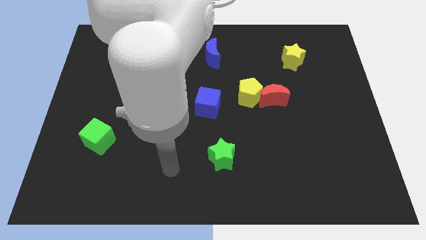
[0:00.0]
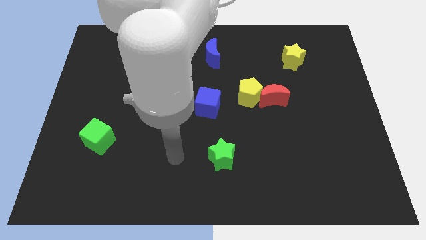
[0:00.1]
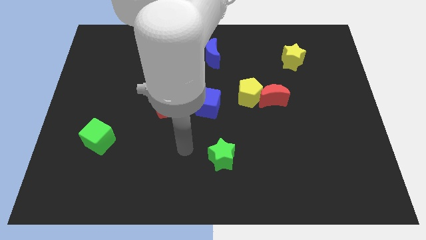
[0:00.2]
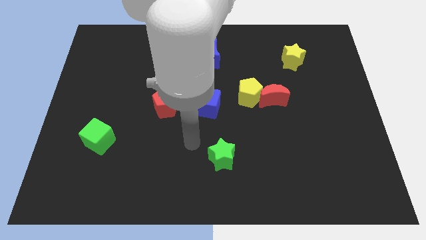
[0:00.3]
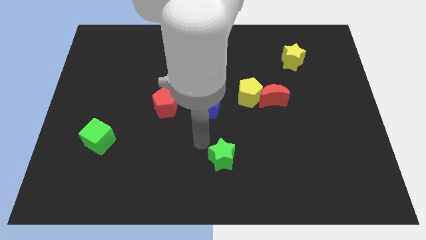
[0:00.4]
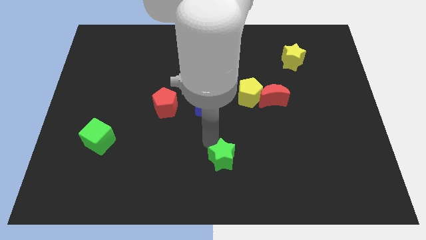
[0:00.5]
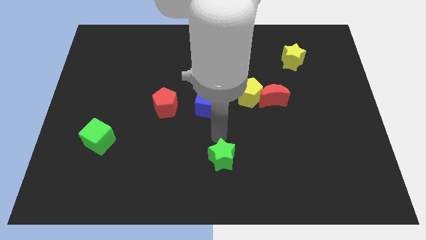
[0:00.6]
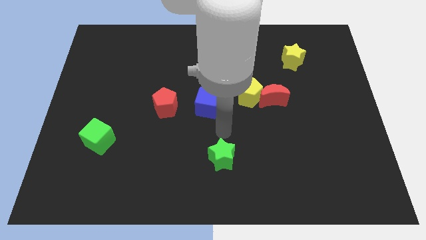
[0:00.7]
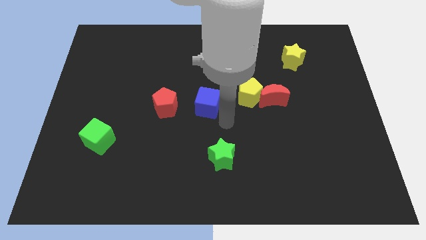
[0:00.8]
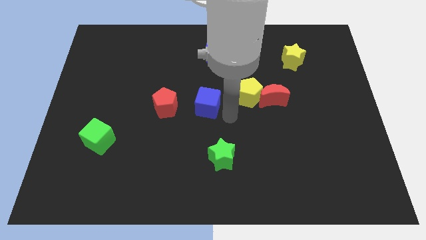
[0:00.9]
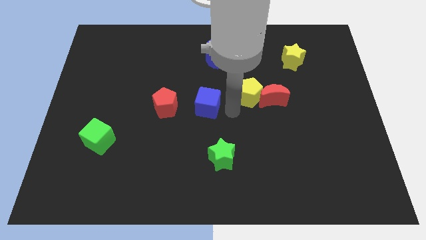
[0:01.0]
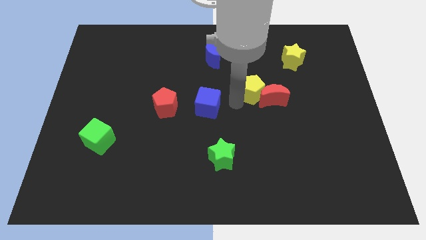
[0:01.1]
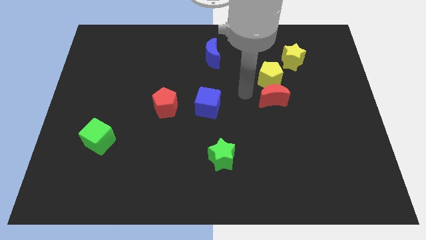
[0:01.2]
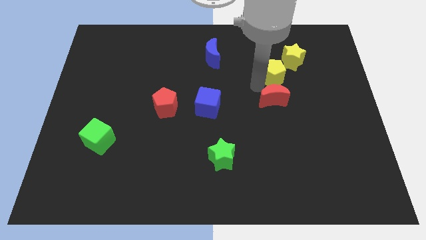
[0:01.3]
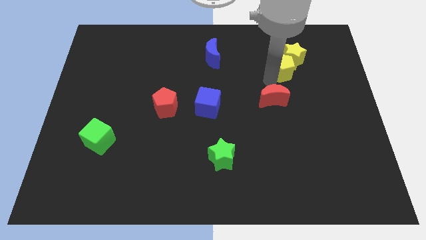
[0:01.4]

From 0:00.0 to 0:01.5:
move the red moon away from the yellow pentagon

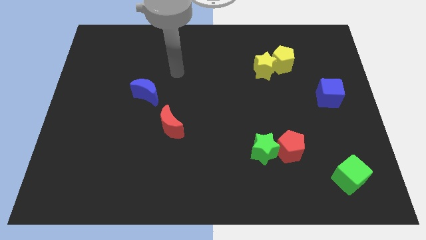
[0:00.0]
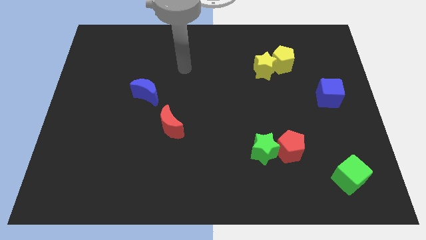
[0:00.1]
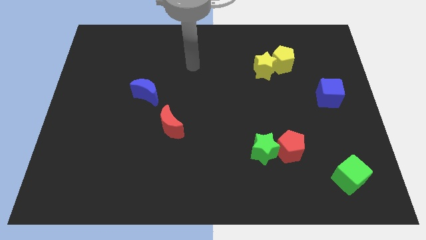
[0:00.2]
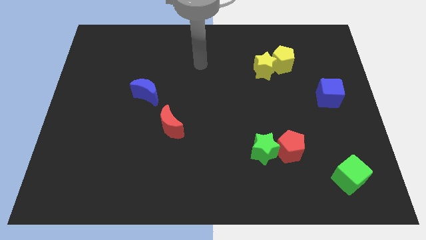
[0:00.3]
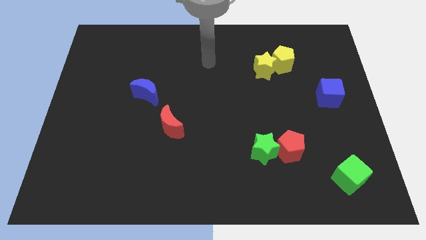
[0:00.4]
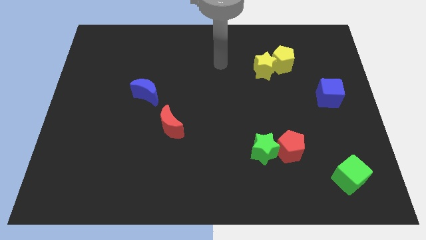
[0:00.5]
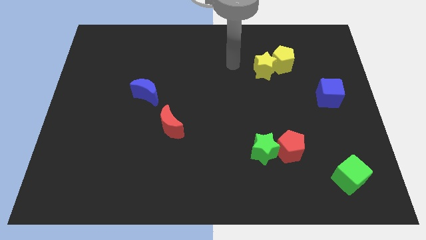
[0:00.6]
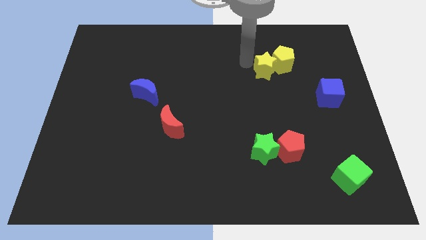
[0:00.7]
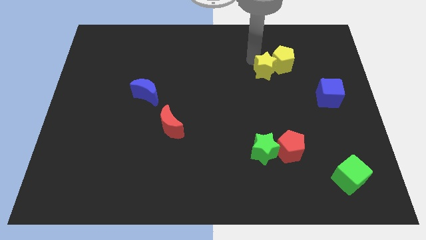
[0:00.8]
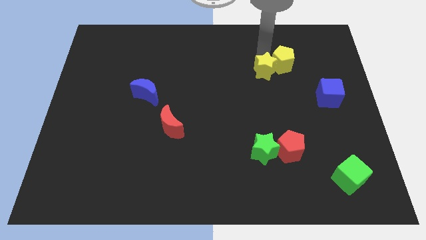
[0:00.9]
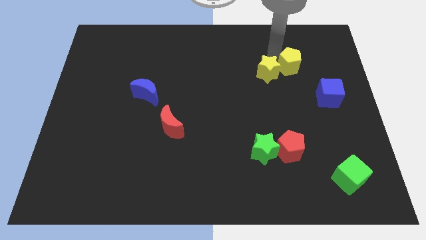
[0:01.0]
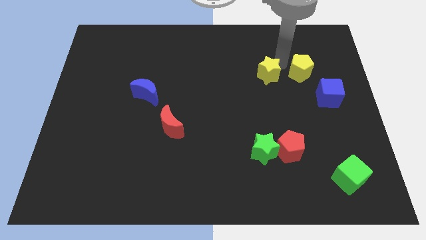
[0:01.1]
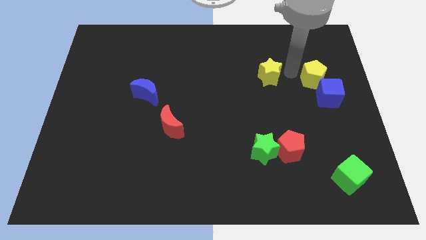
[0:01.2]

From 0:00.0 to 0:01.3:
pull the yellow star apart from the yellow pentagon

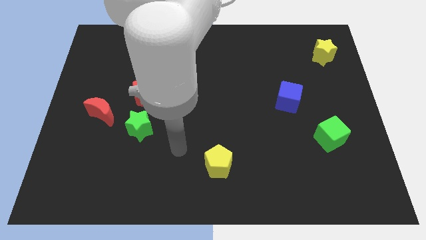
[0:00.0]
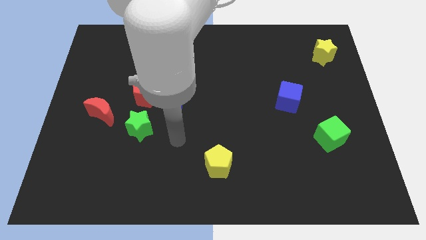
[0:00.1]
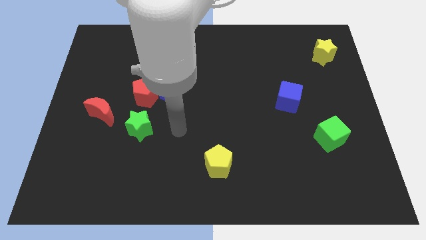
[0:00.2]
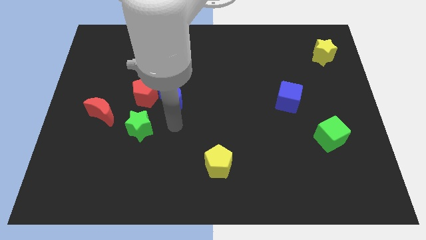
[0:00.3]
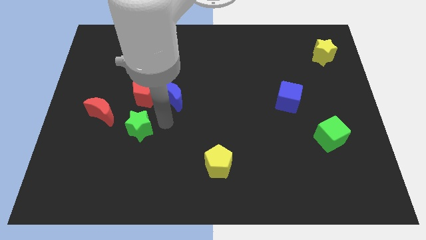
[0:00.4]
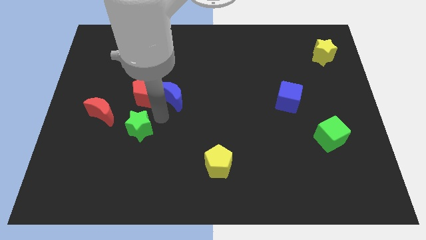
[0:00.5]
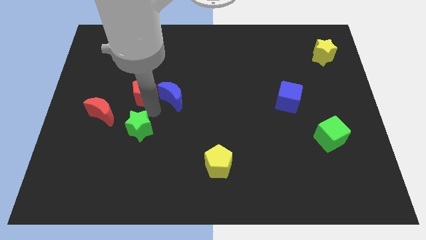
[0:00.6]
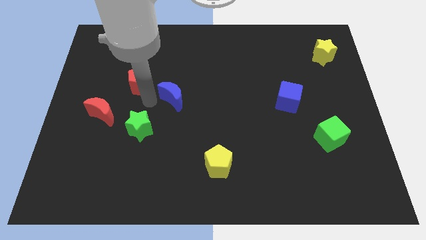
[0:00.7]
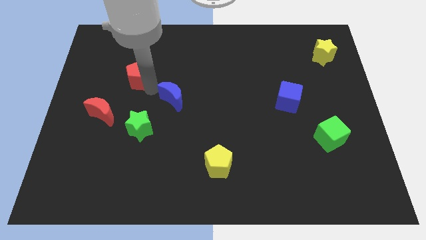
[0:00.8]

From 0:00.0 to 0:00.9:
pull the blue moon apart from the red pentagon

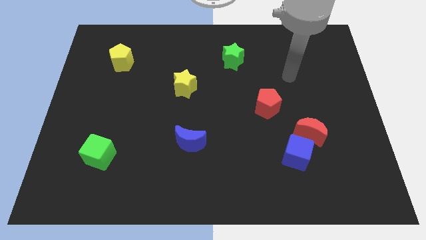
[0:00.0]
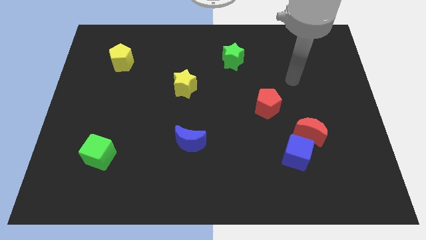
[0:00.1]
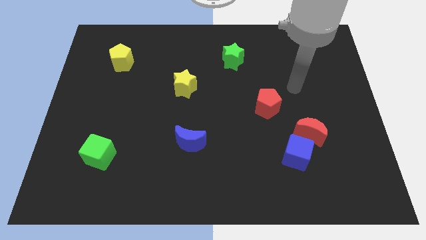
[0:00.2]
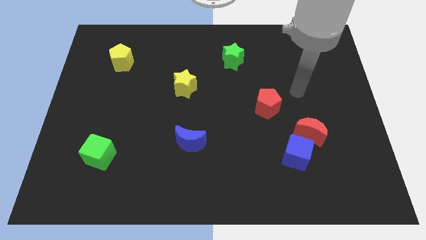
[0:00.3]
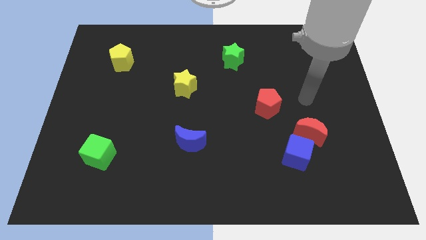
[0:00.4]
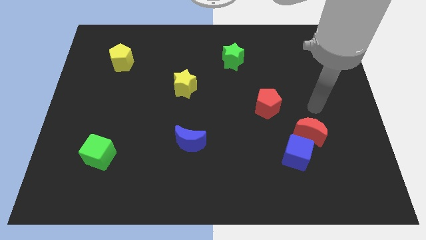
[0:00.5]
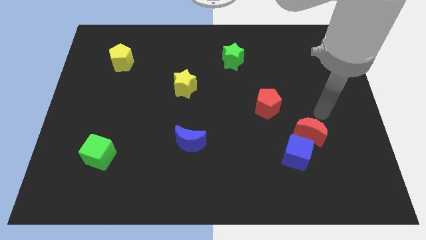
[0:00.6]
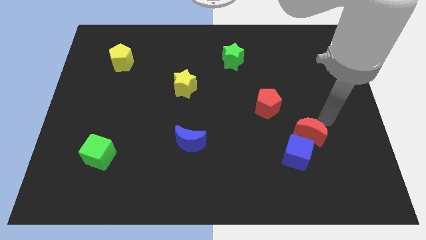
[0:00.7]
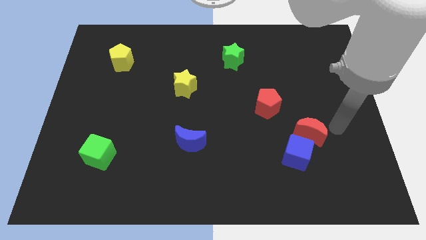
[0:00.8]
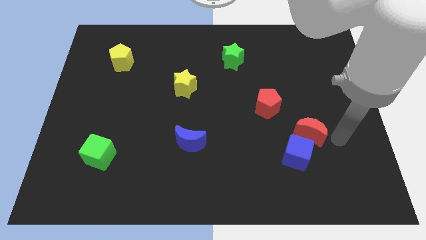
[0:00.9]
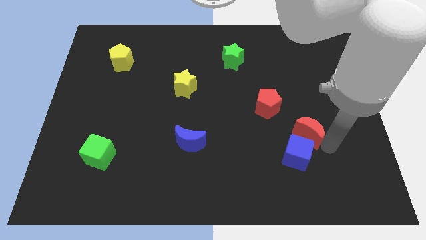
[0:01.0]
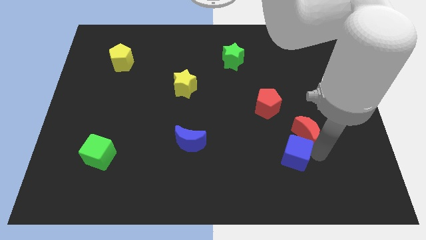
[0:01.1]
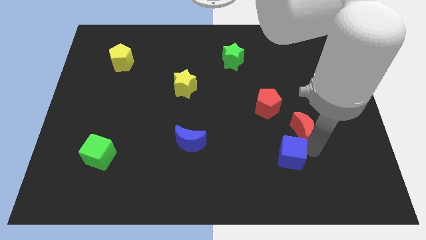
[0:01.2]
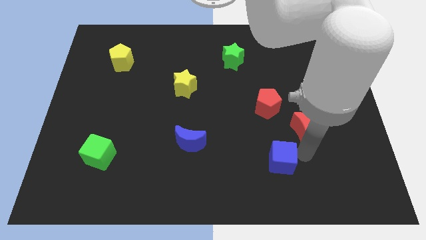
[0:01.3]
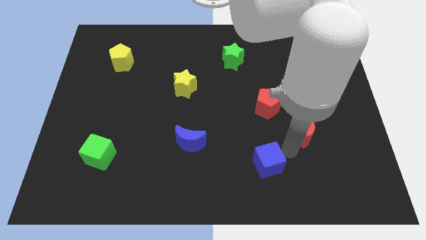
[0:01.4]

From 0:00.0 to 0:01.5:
move the red moon away from the blue cube

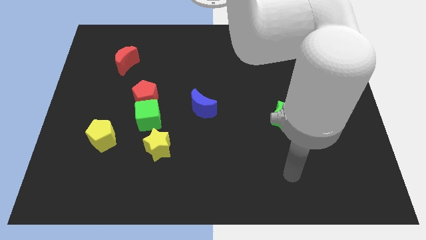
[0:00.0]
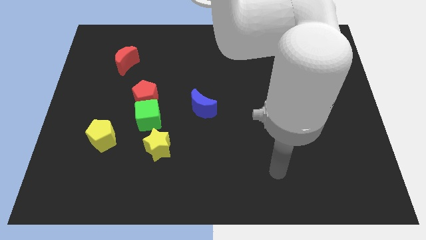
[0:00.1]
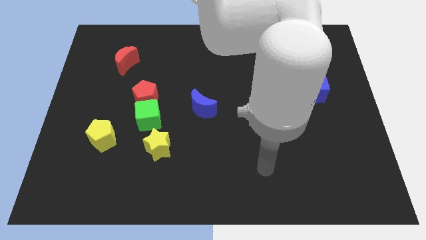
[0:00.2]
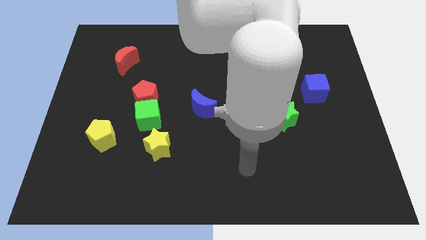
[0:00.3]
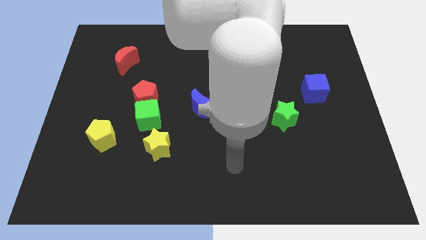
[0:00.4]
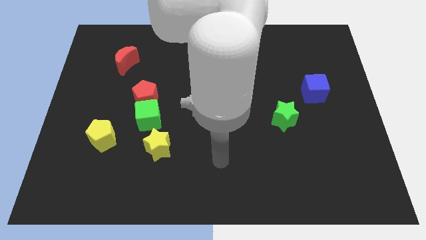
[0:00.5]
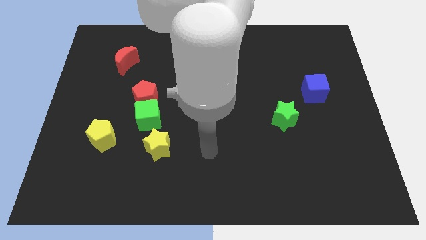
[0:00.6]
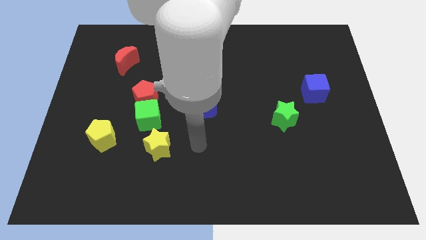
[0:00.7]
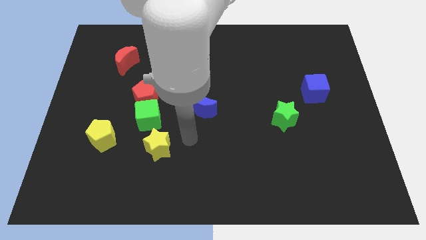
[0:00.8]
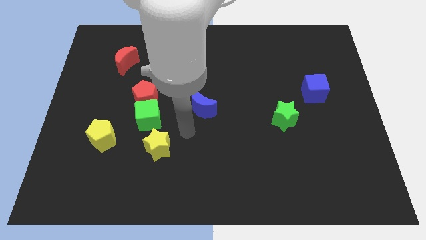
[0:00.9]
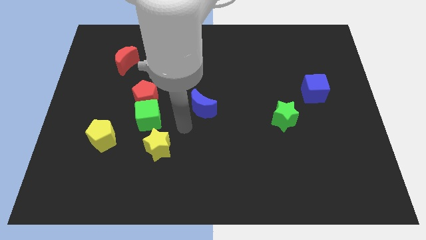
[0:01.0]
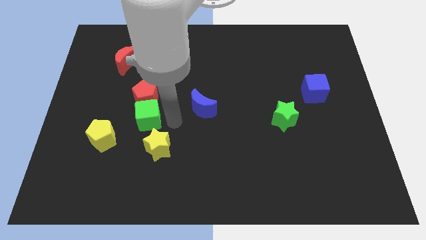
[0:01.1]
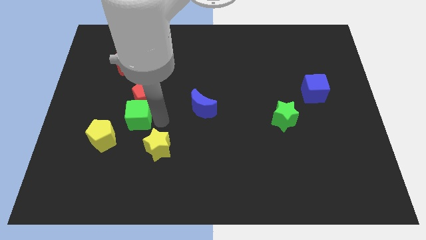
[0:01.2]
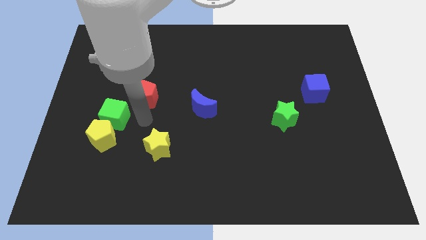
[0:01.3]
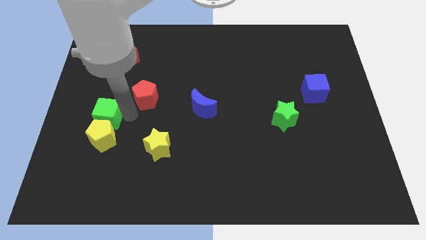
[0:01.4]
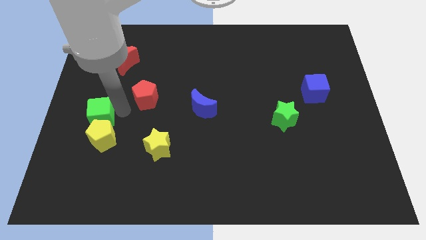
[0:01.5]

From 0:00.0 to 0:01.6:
move the red pentagon away from the green cube

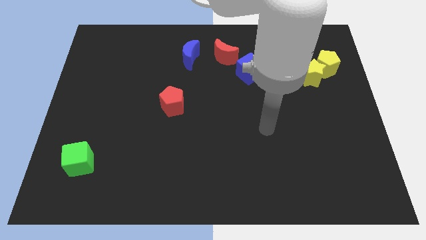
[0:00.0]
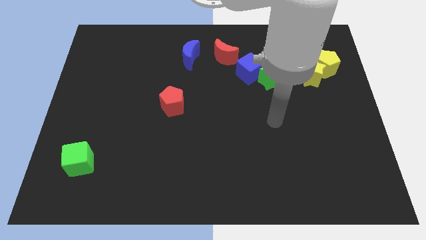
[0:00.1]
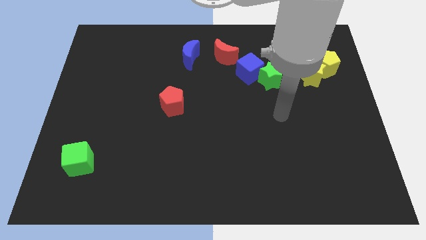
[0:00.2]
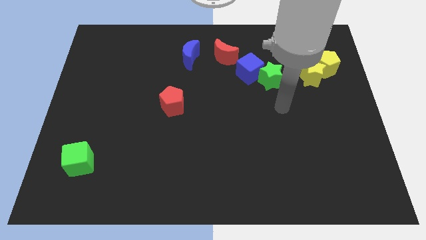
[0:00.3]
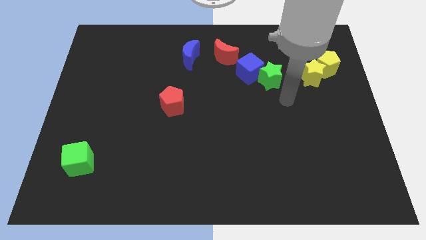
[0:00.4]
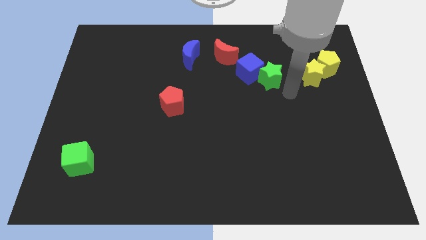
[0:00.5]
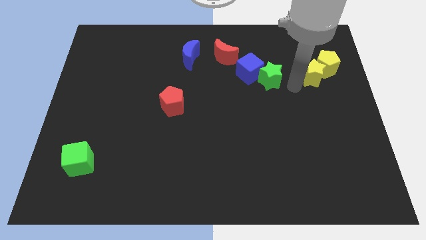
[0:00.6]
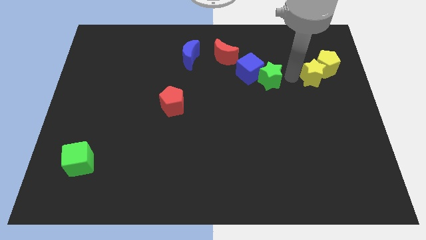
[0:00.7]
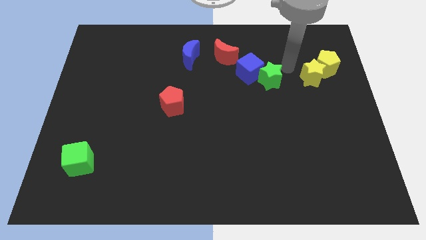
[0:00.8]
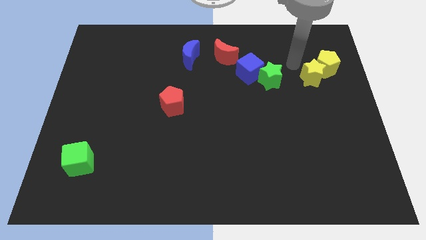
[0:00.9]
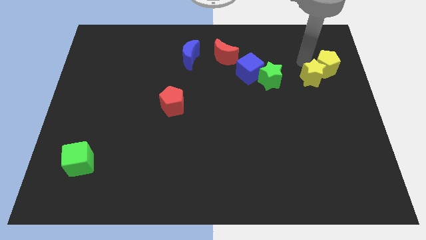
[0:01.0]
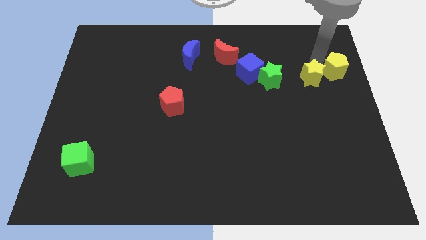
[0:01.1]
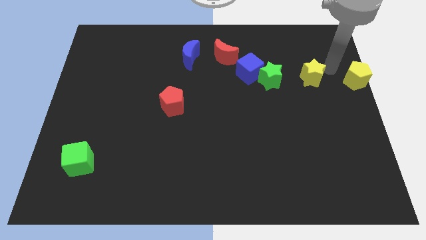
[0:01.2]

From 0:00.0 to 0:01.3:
separate the yellow star from the yellow pentagon

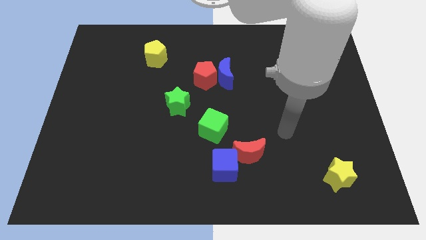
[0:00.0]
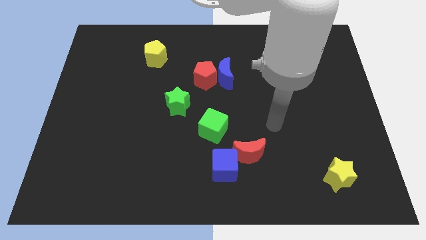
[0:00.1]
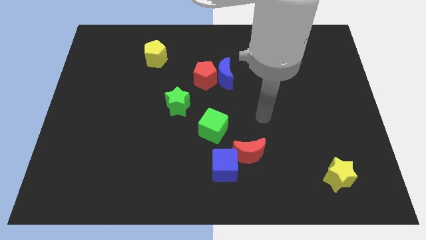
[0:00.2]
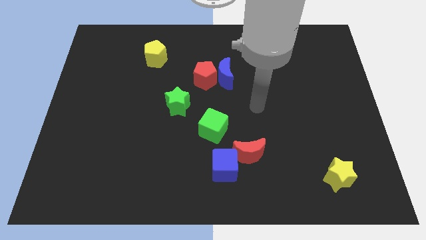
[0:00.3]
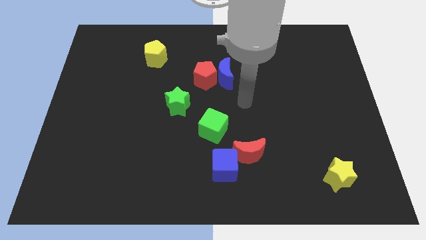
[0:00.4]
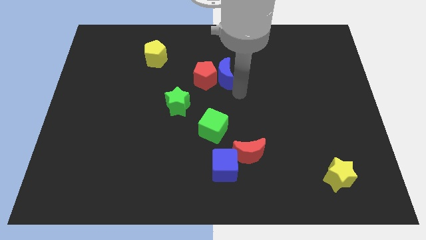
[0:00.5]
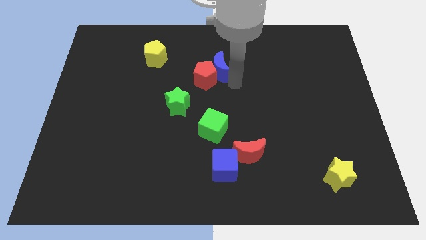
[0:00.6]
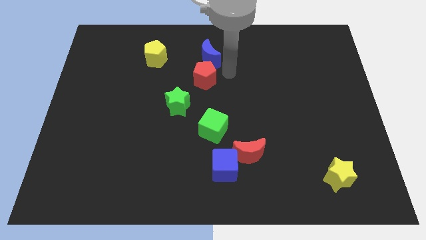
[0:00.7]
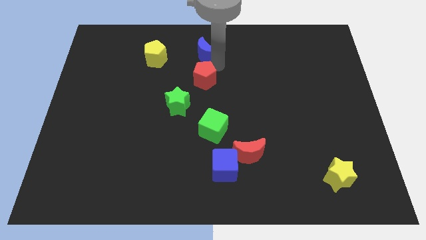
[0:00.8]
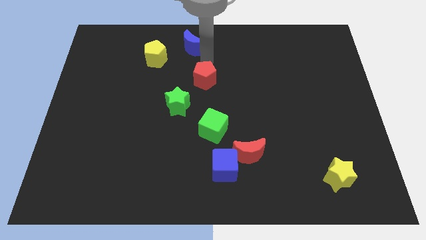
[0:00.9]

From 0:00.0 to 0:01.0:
pull the red pentagon apart from the blue moon
